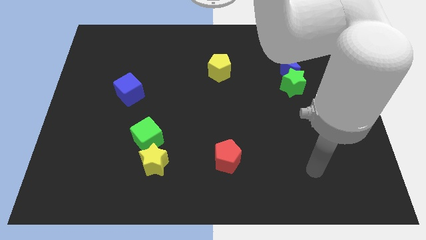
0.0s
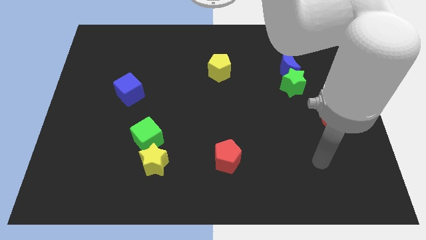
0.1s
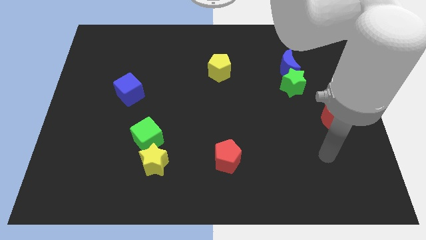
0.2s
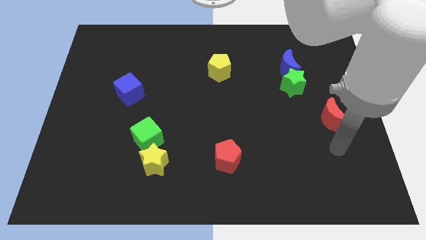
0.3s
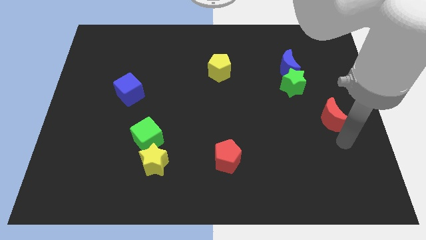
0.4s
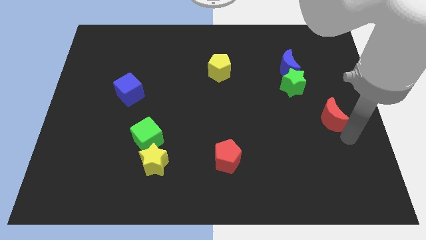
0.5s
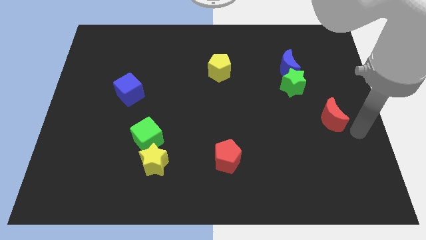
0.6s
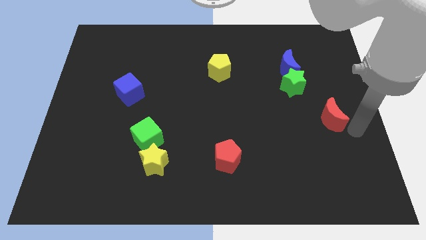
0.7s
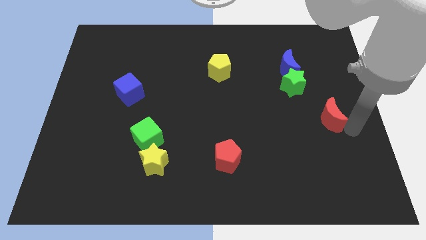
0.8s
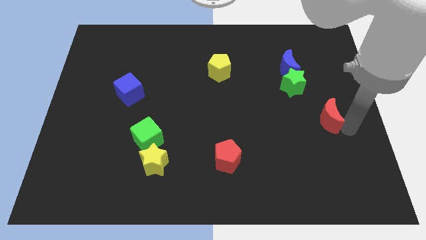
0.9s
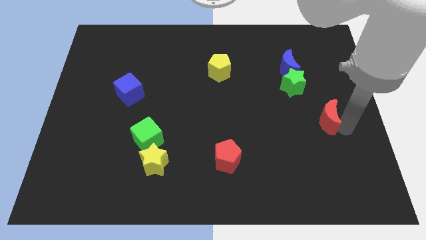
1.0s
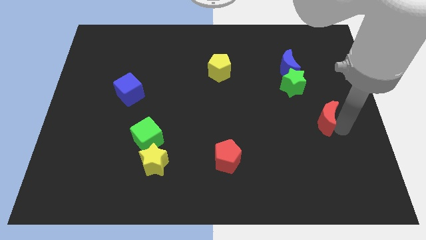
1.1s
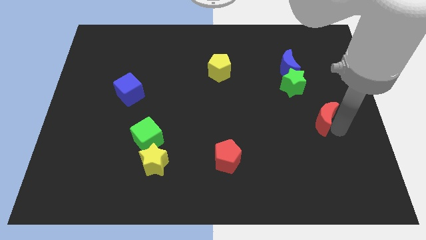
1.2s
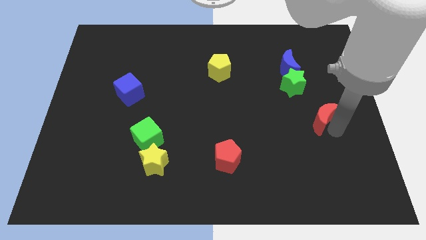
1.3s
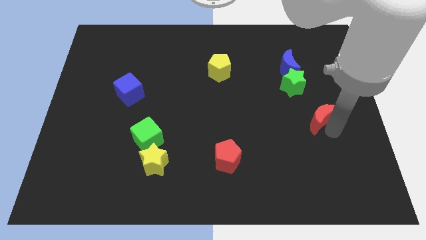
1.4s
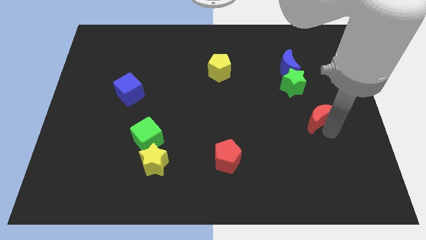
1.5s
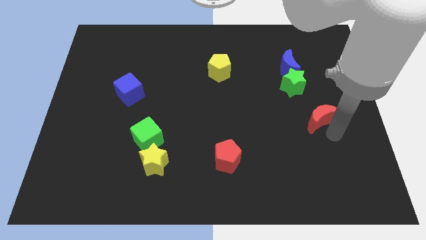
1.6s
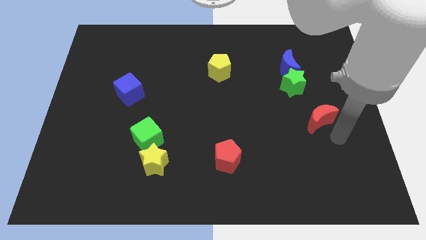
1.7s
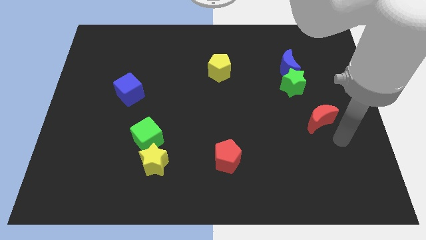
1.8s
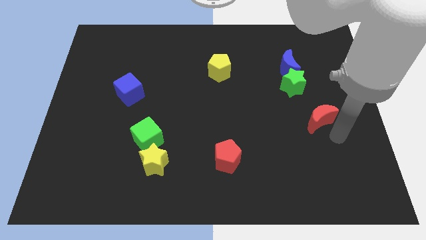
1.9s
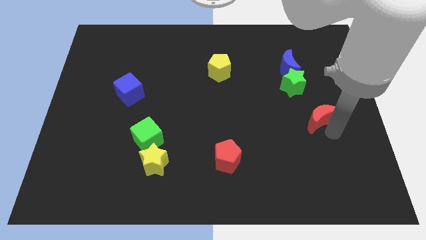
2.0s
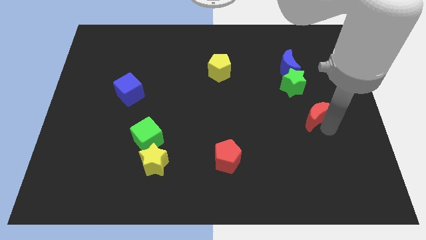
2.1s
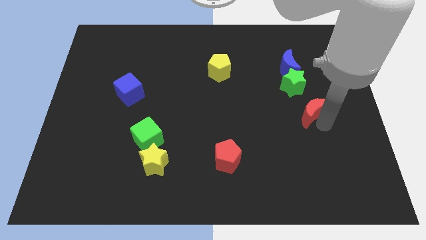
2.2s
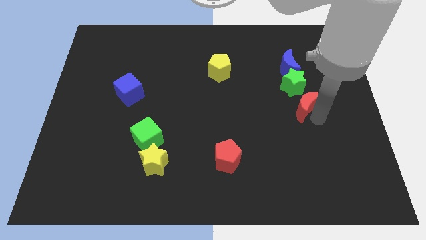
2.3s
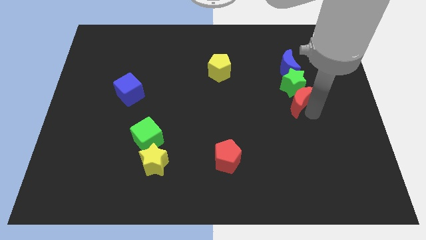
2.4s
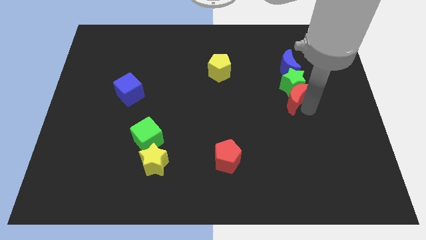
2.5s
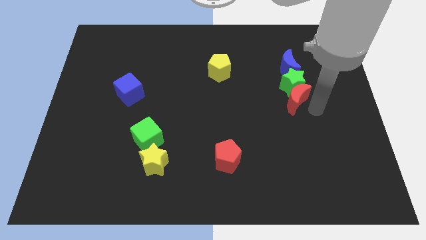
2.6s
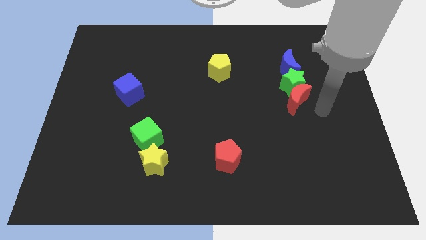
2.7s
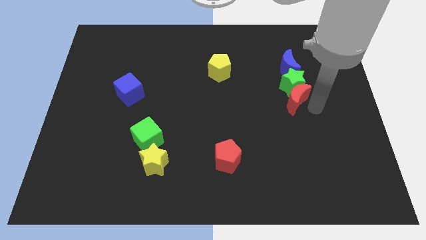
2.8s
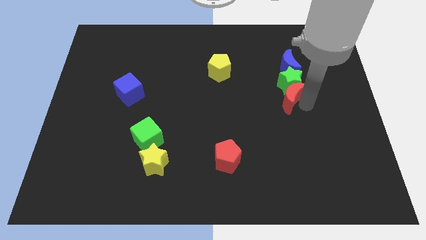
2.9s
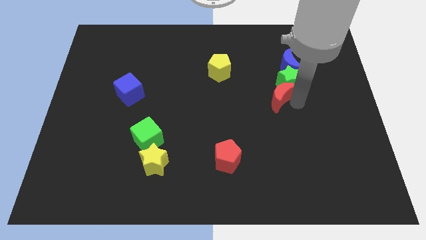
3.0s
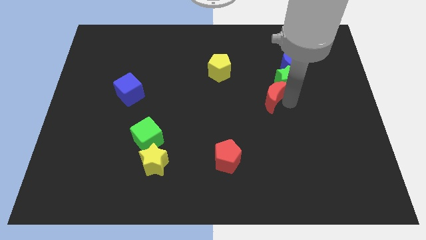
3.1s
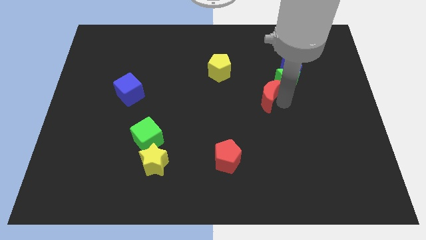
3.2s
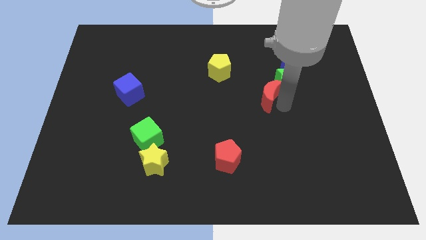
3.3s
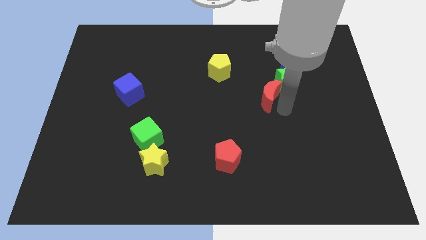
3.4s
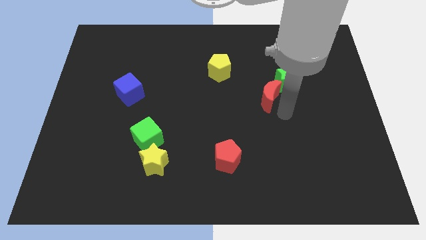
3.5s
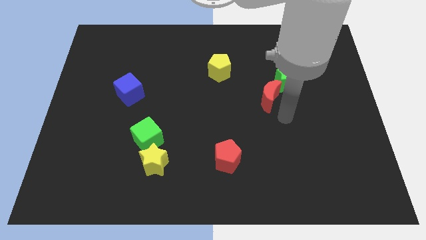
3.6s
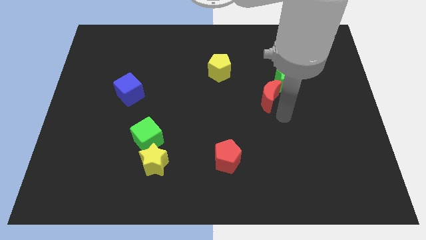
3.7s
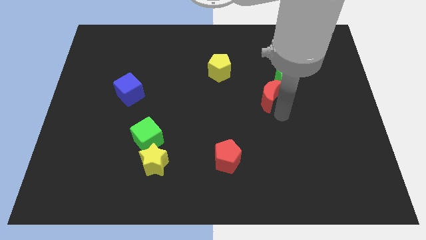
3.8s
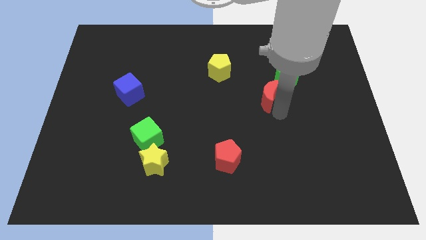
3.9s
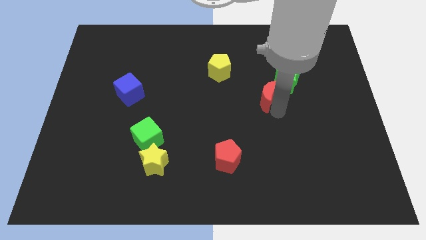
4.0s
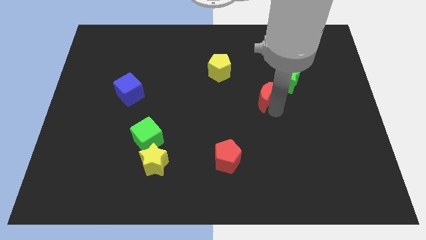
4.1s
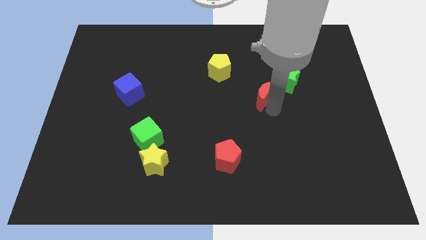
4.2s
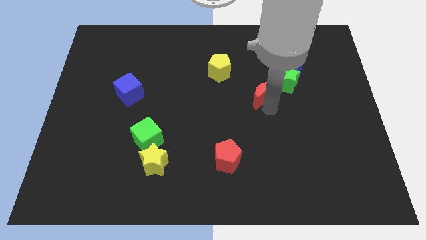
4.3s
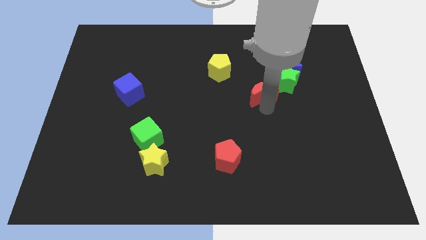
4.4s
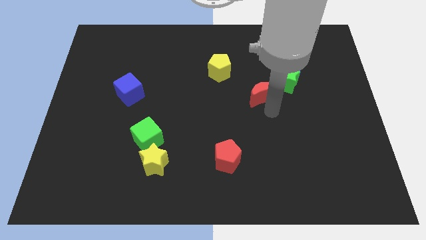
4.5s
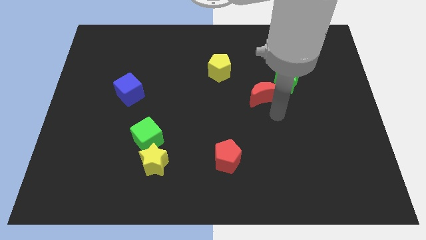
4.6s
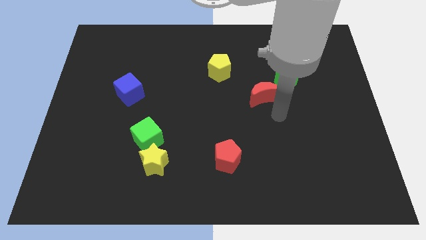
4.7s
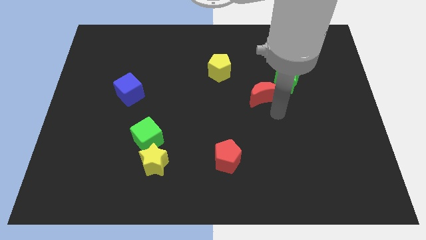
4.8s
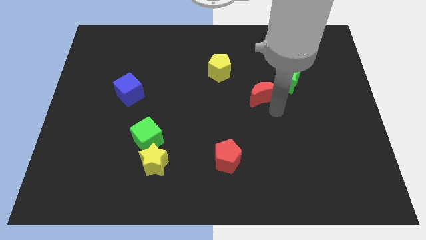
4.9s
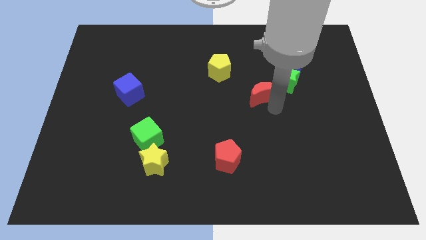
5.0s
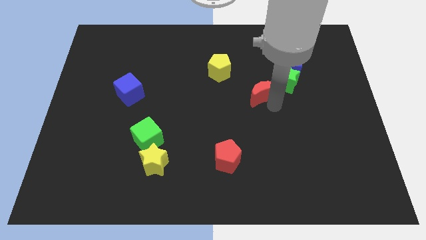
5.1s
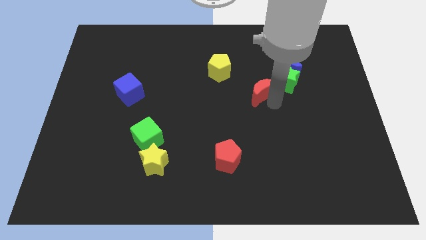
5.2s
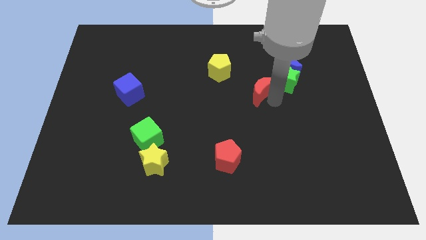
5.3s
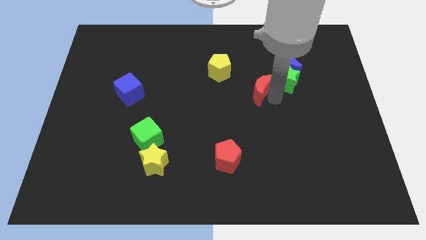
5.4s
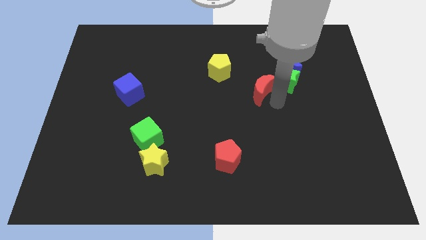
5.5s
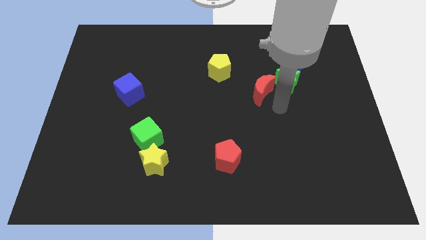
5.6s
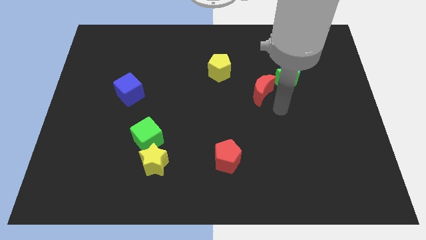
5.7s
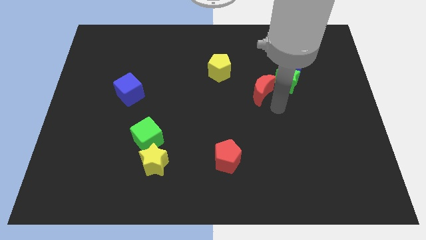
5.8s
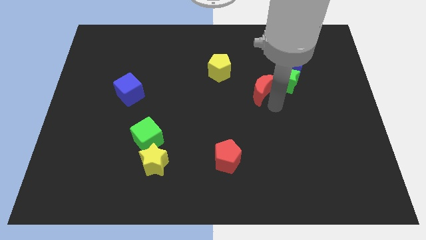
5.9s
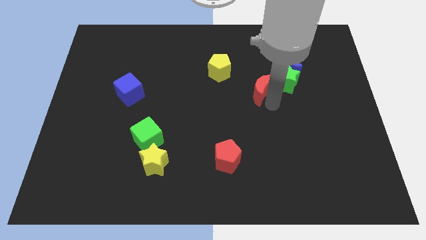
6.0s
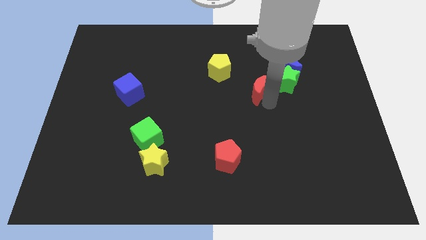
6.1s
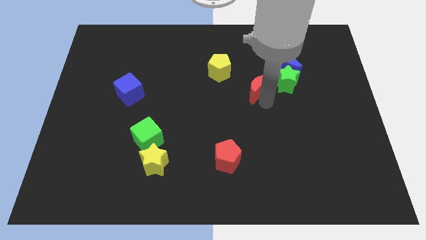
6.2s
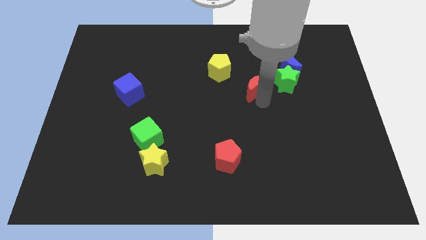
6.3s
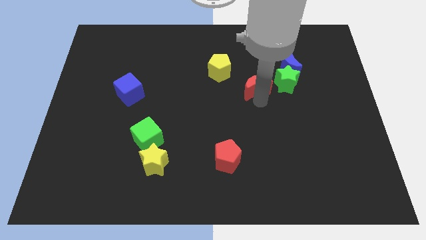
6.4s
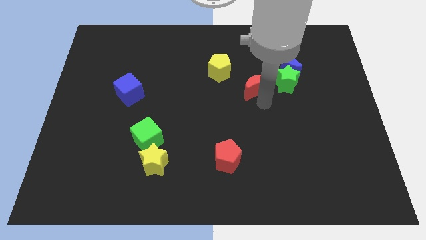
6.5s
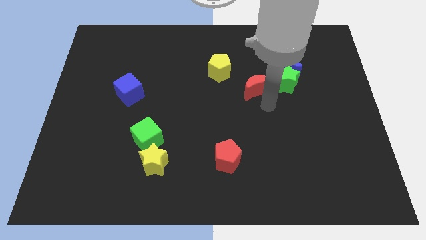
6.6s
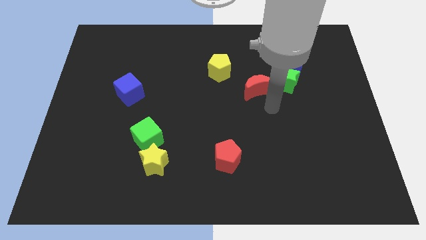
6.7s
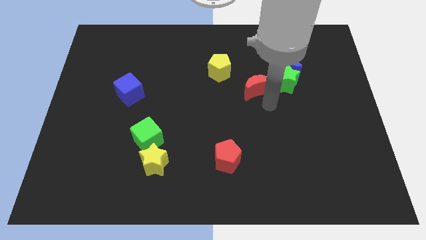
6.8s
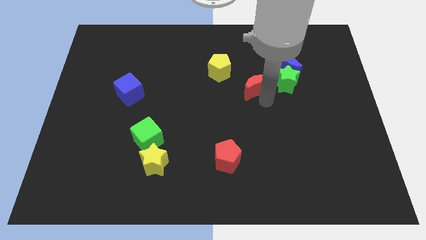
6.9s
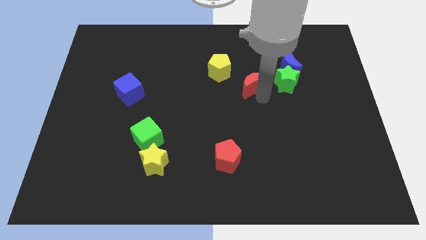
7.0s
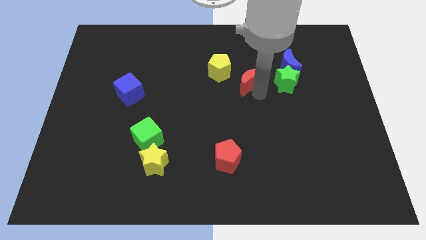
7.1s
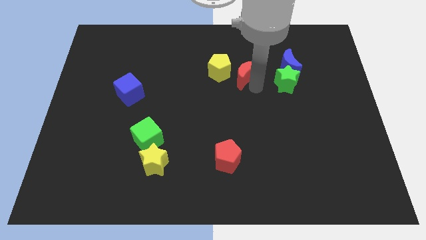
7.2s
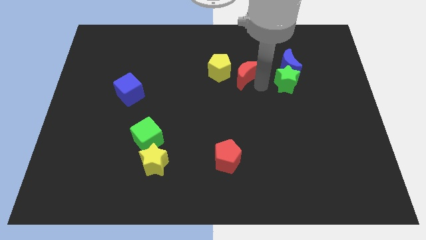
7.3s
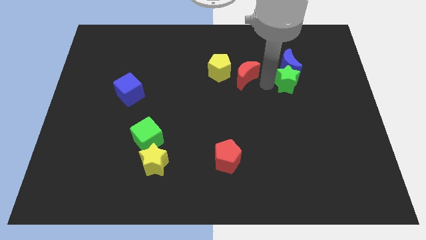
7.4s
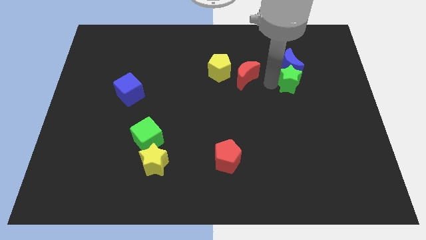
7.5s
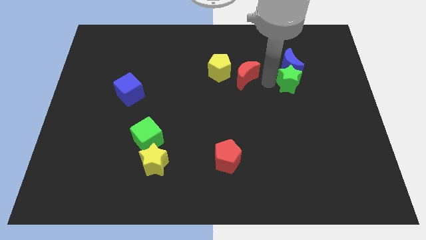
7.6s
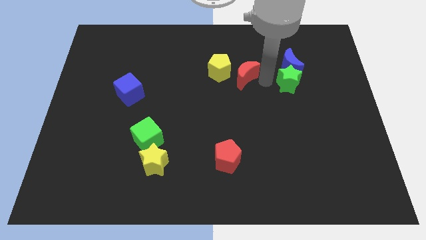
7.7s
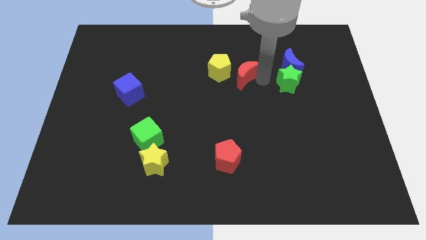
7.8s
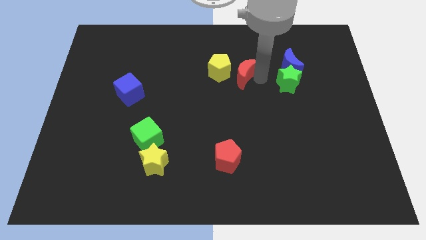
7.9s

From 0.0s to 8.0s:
push the red moon next to the yellow pentagon
